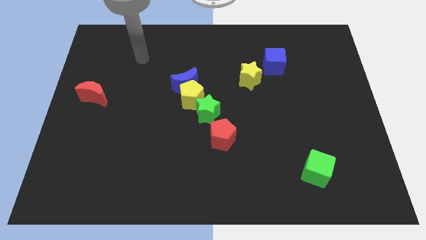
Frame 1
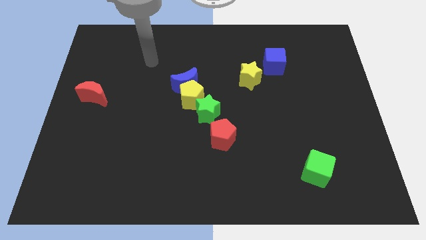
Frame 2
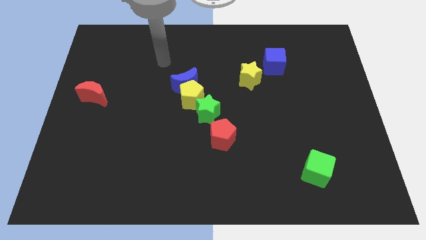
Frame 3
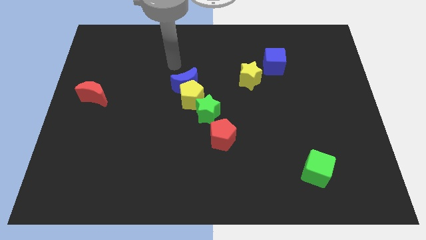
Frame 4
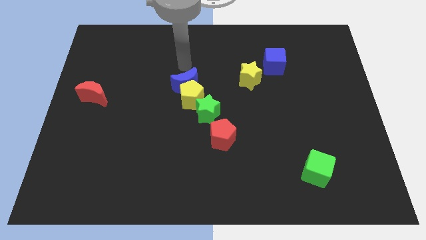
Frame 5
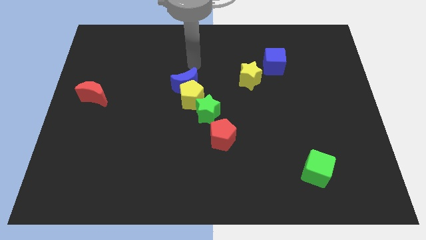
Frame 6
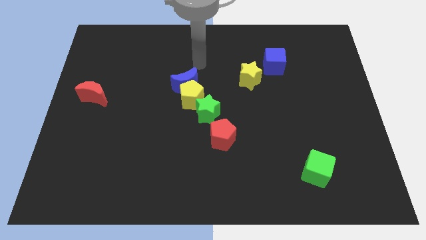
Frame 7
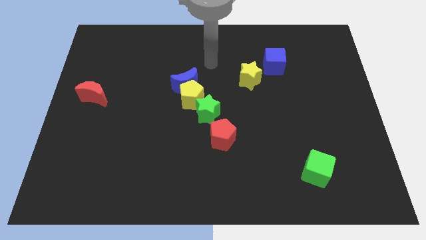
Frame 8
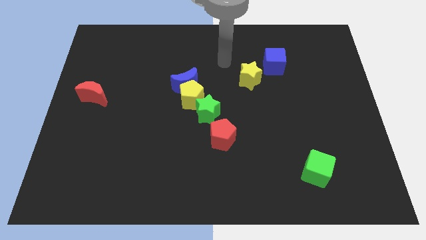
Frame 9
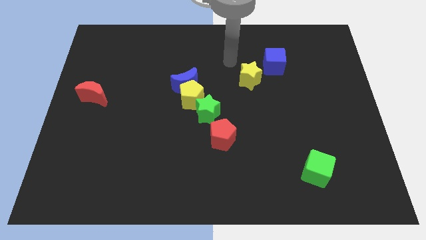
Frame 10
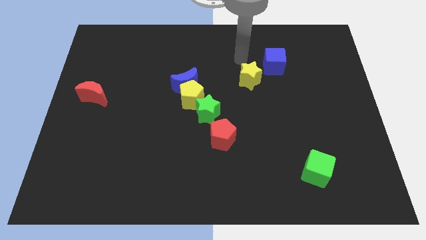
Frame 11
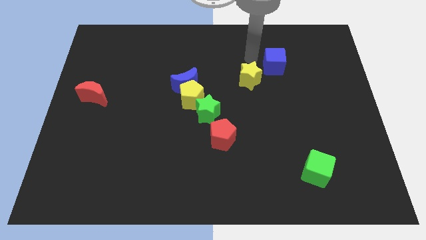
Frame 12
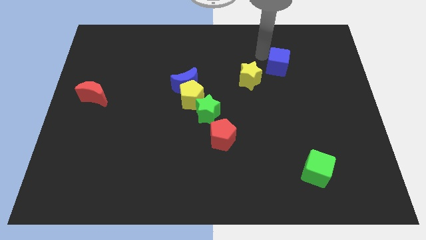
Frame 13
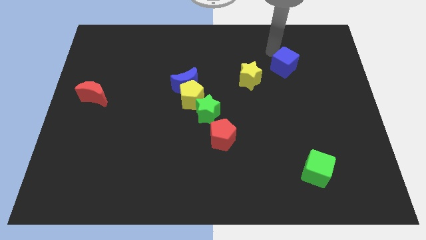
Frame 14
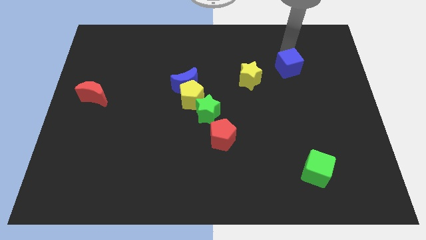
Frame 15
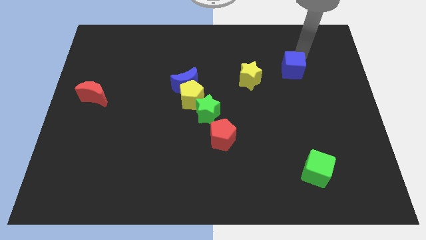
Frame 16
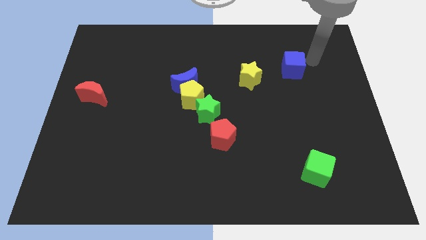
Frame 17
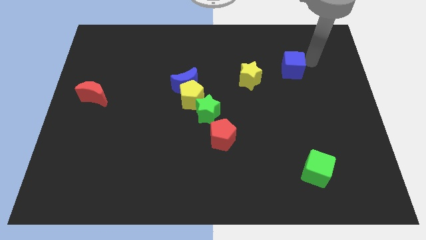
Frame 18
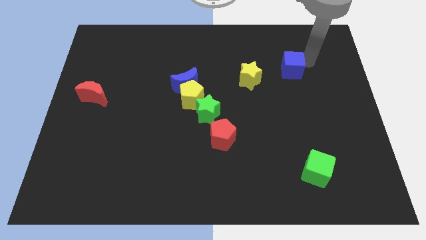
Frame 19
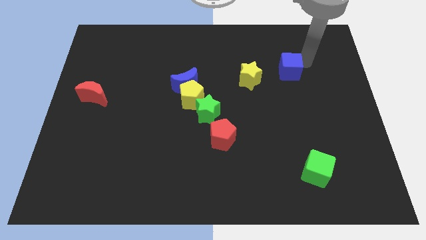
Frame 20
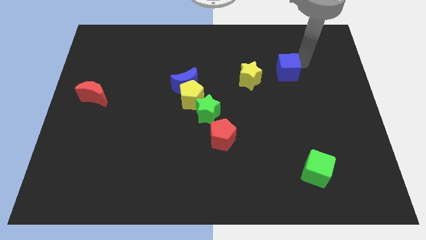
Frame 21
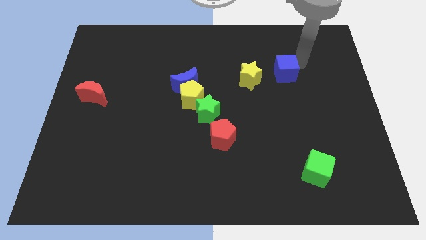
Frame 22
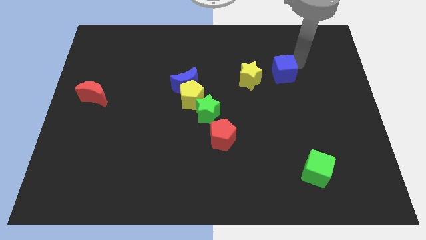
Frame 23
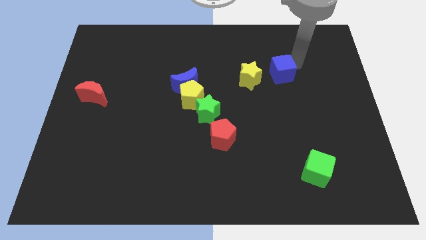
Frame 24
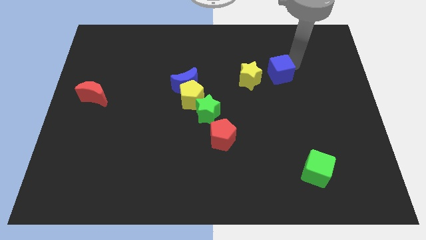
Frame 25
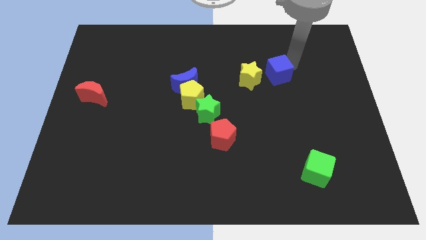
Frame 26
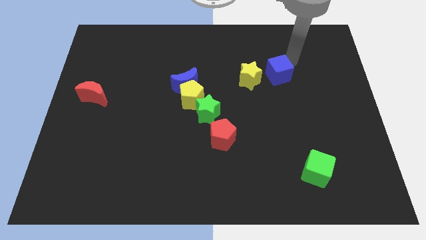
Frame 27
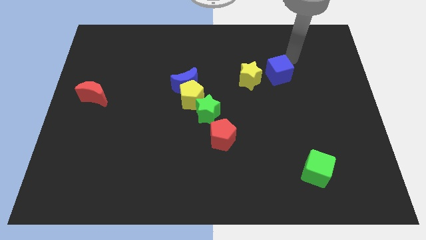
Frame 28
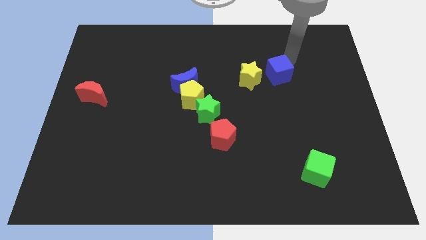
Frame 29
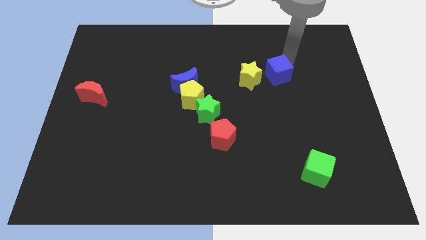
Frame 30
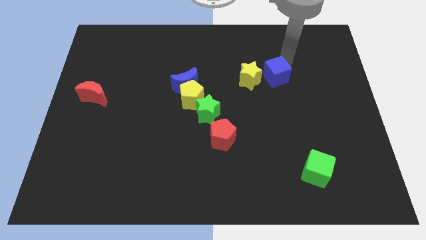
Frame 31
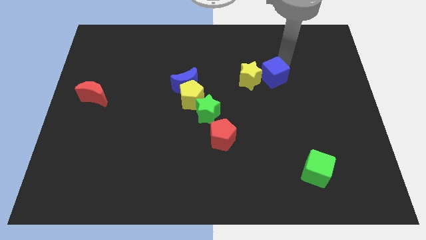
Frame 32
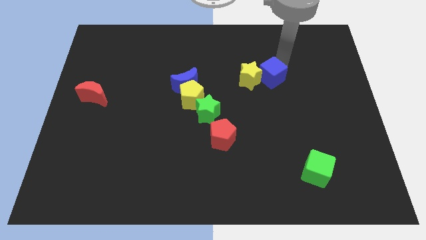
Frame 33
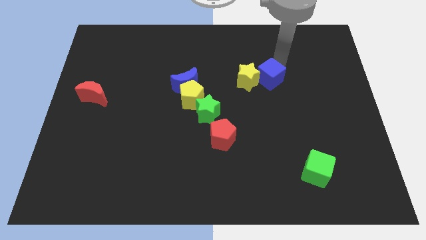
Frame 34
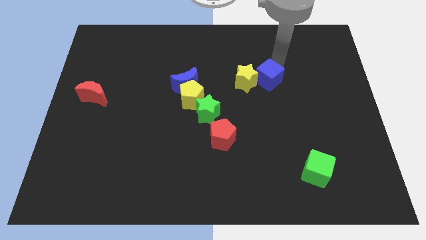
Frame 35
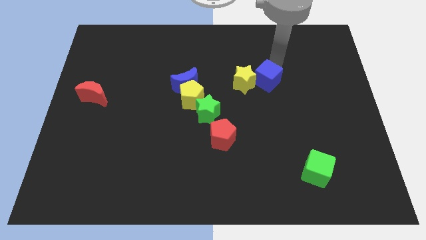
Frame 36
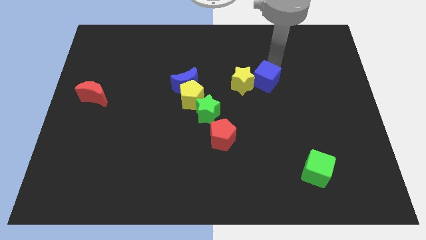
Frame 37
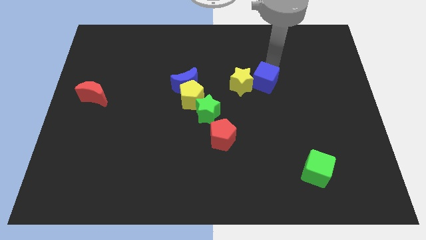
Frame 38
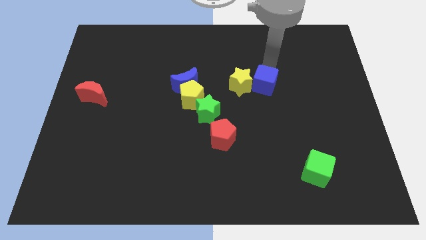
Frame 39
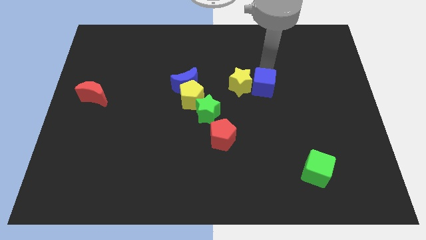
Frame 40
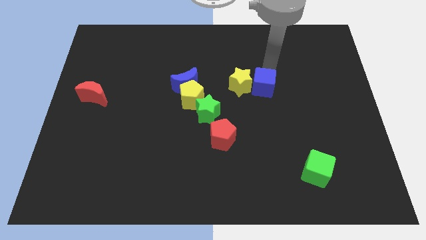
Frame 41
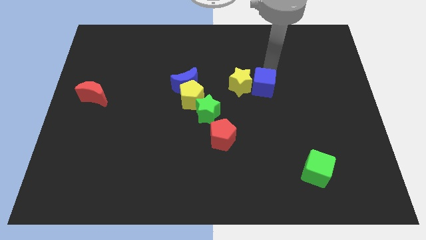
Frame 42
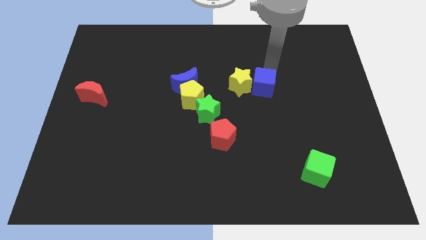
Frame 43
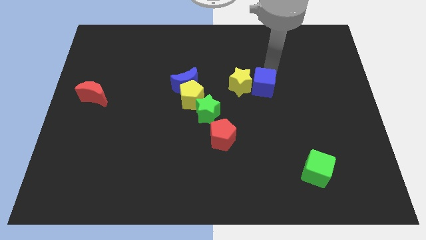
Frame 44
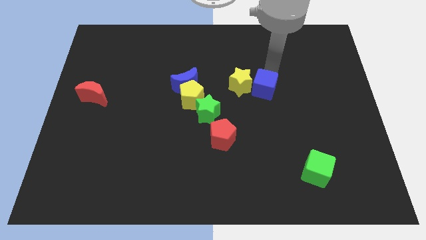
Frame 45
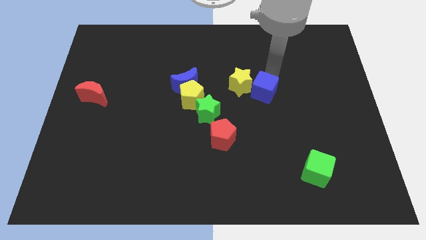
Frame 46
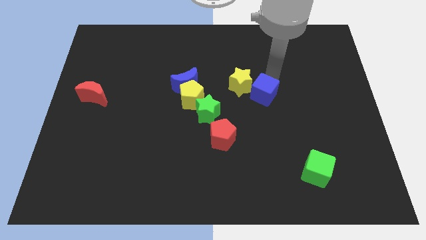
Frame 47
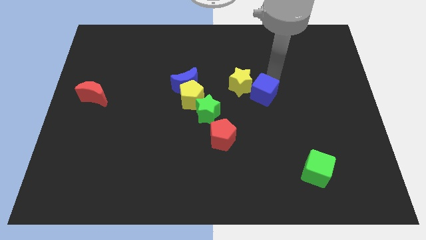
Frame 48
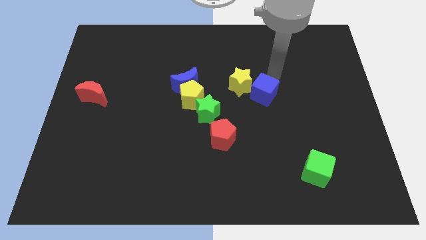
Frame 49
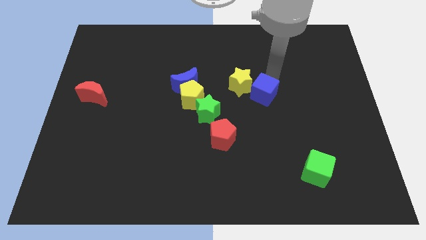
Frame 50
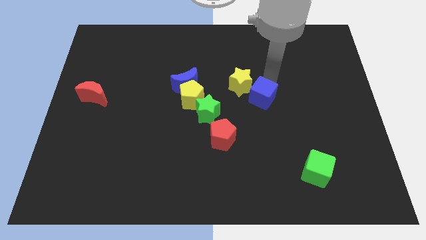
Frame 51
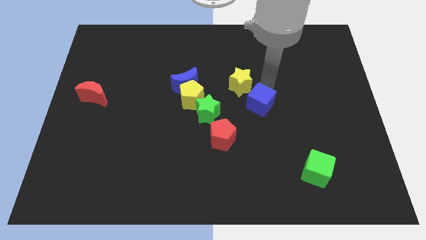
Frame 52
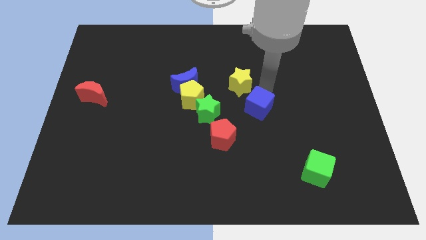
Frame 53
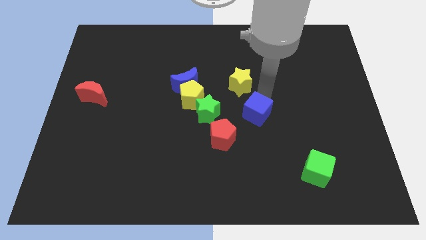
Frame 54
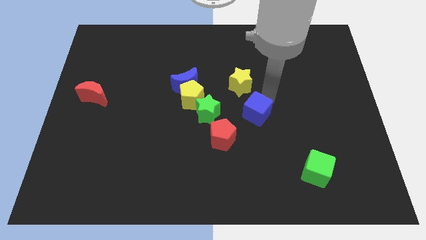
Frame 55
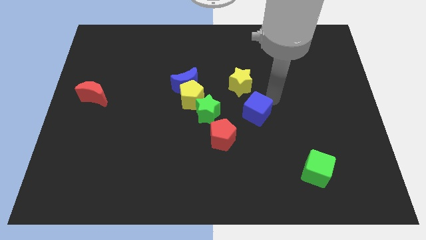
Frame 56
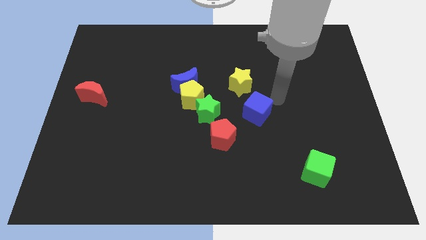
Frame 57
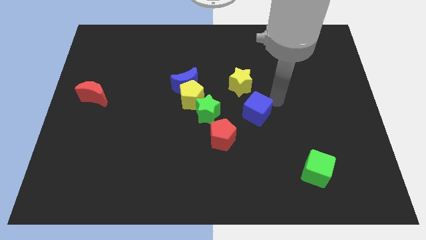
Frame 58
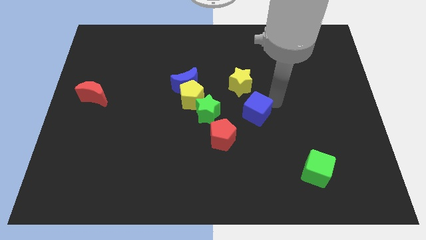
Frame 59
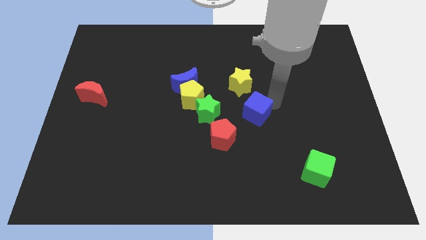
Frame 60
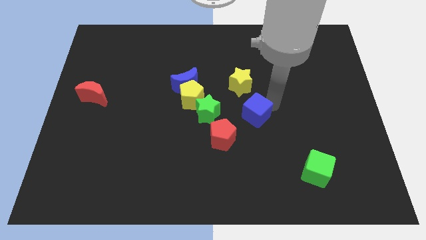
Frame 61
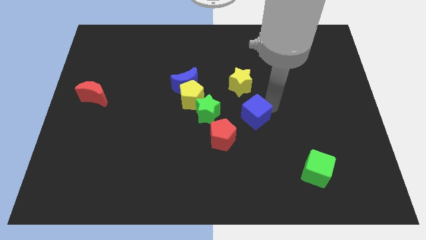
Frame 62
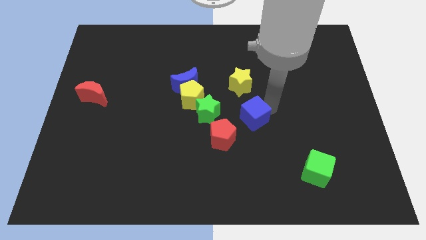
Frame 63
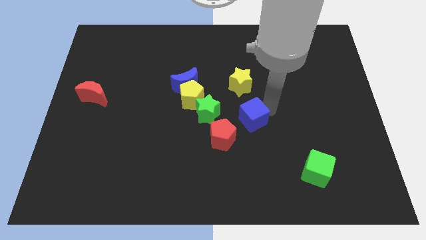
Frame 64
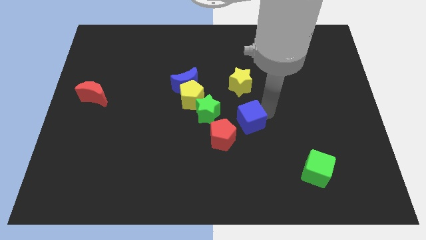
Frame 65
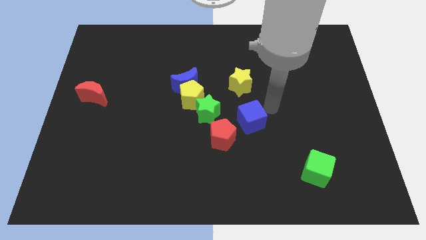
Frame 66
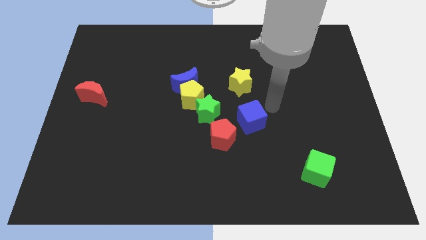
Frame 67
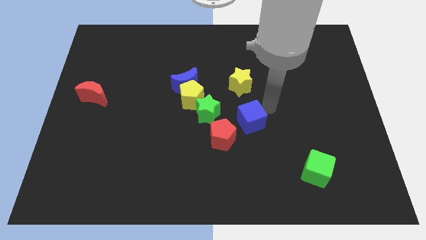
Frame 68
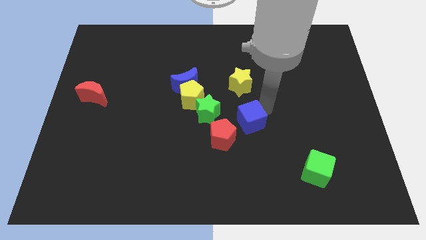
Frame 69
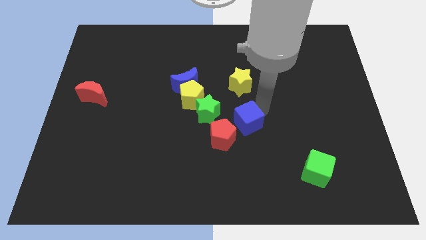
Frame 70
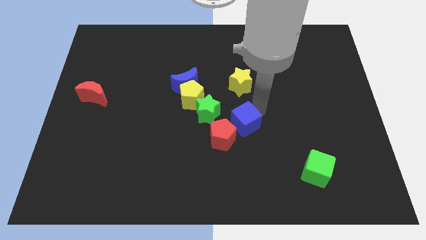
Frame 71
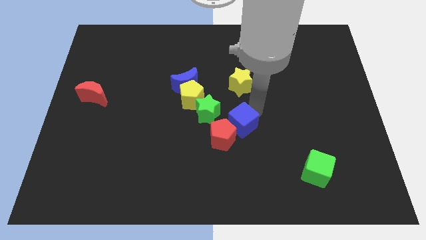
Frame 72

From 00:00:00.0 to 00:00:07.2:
push the blue cube to the red pentagon
